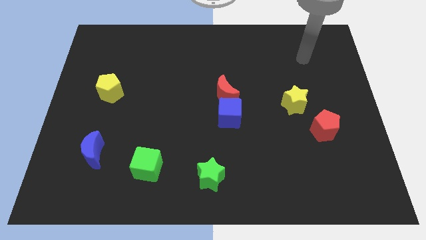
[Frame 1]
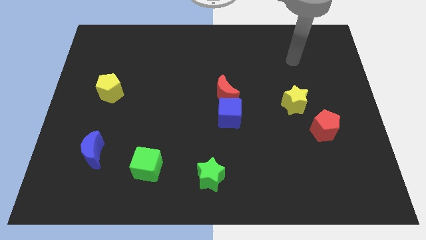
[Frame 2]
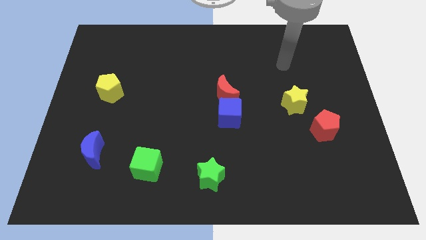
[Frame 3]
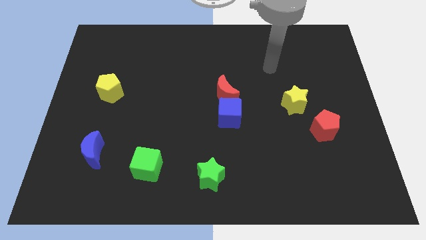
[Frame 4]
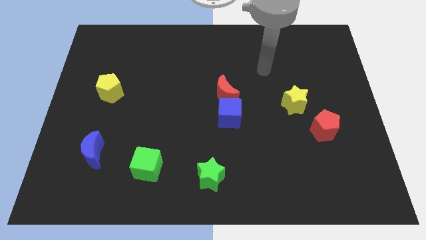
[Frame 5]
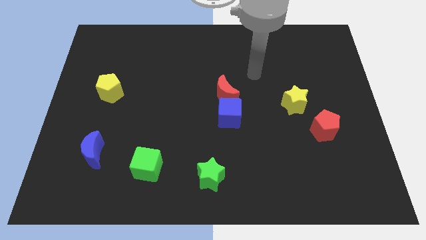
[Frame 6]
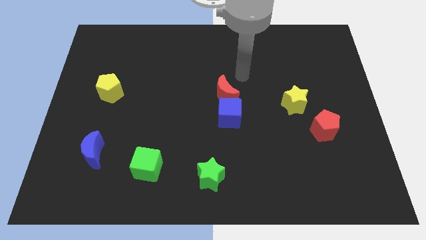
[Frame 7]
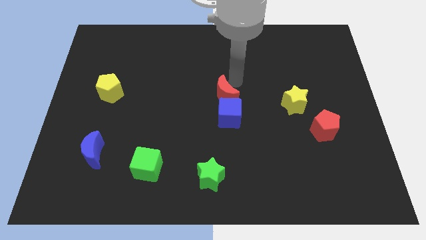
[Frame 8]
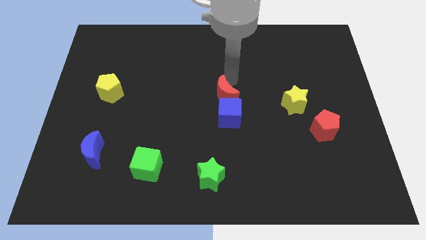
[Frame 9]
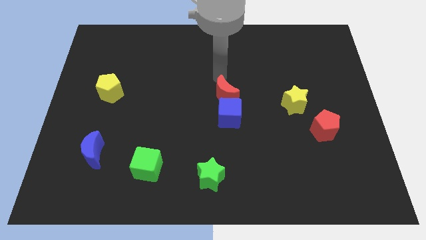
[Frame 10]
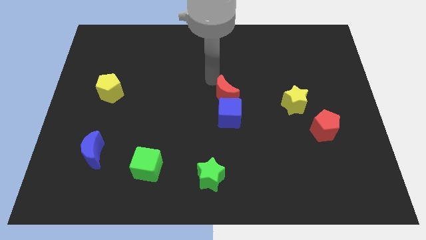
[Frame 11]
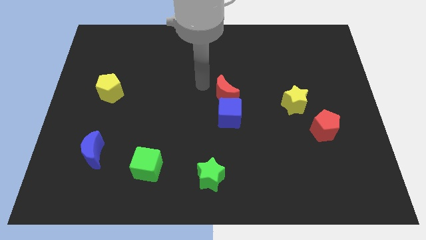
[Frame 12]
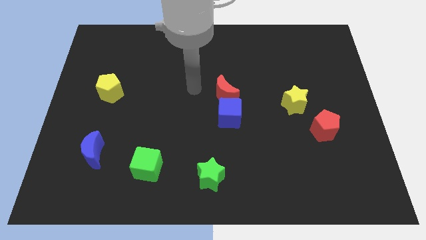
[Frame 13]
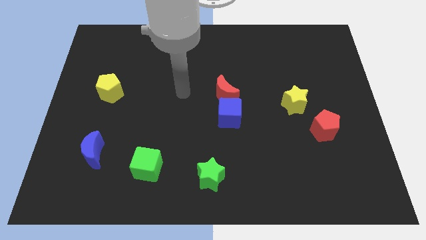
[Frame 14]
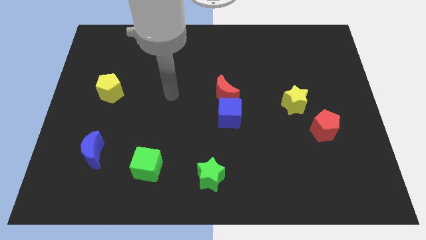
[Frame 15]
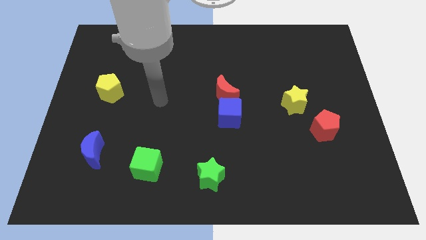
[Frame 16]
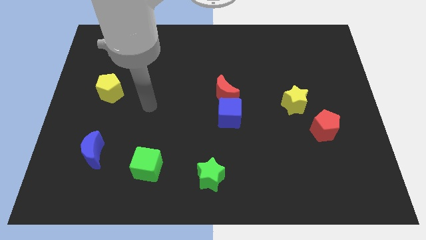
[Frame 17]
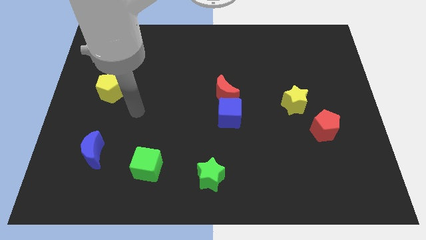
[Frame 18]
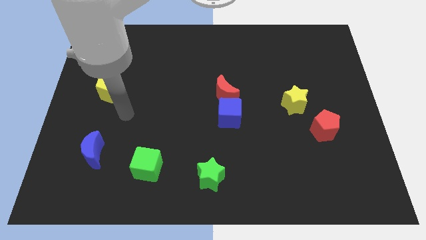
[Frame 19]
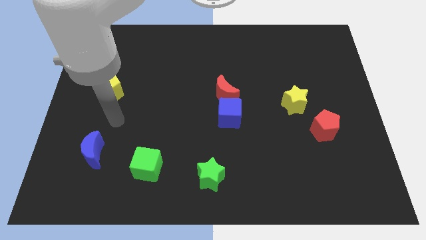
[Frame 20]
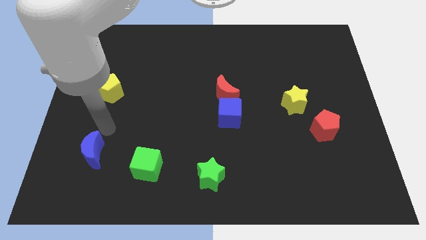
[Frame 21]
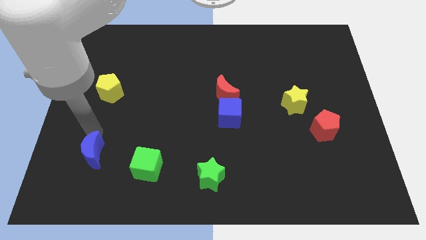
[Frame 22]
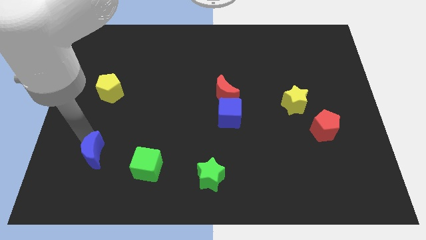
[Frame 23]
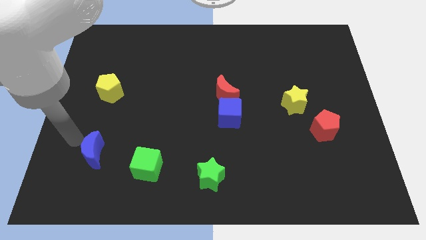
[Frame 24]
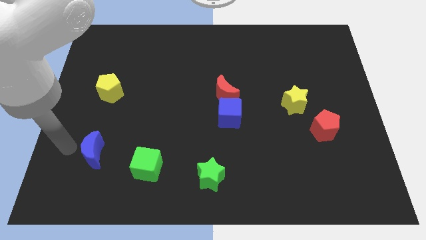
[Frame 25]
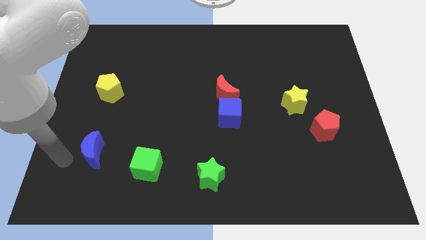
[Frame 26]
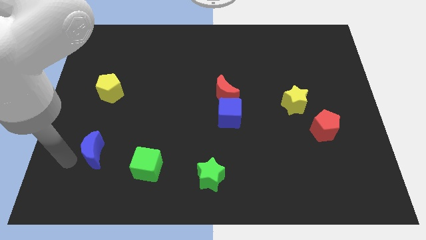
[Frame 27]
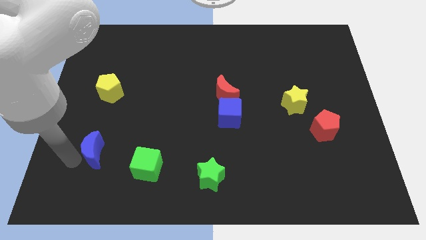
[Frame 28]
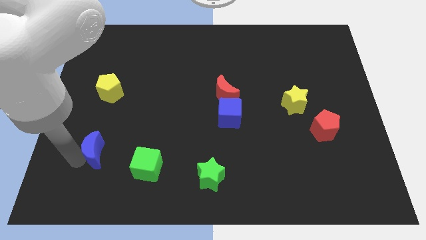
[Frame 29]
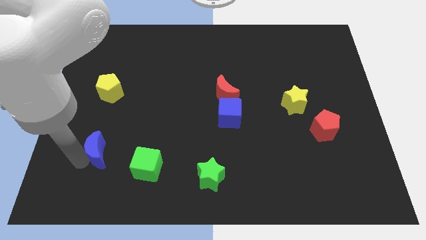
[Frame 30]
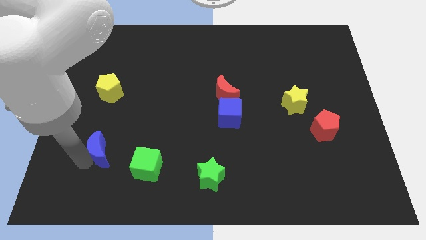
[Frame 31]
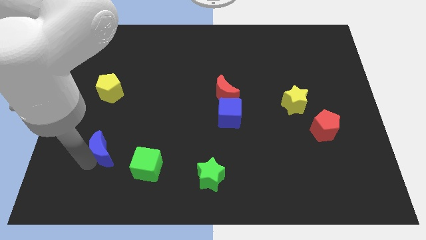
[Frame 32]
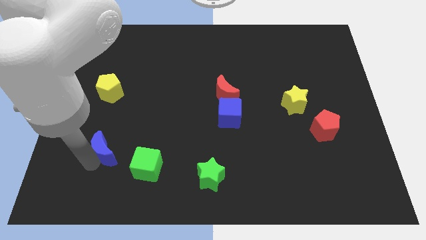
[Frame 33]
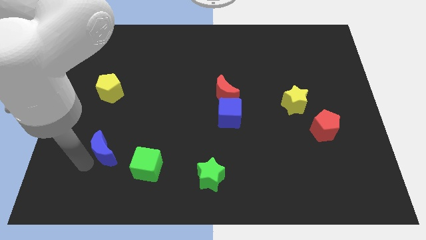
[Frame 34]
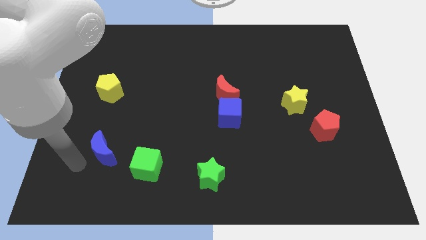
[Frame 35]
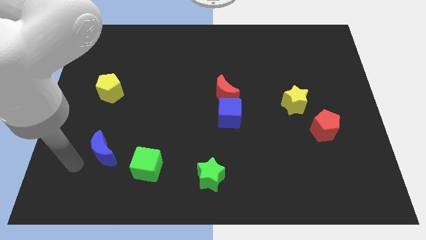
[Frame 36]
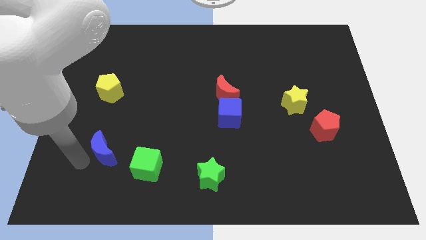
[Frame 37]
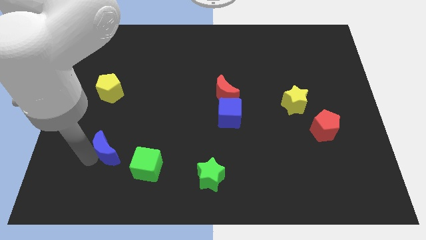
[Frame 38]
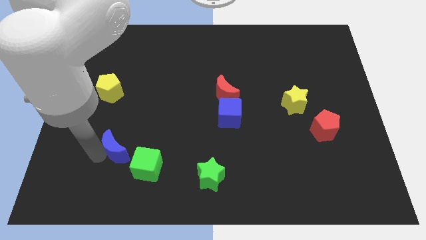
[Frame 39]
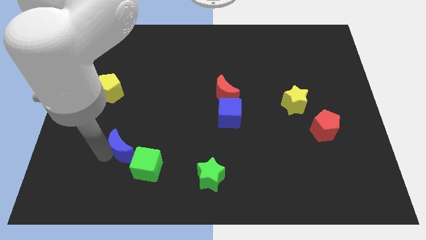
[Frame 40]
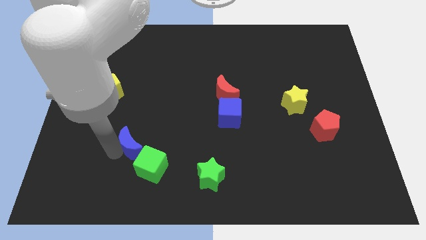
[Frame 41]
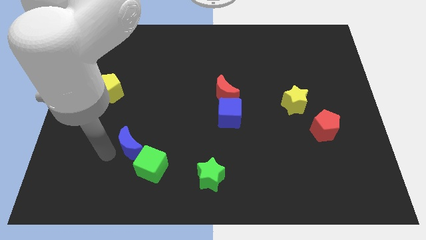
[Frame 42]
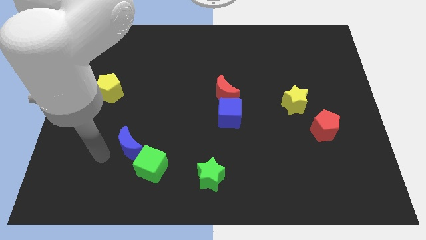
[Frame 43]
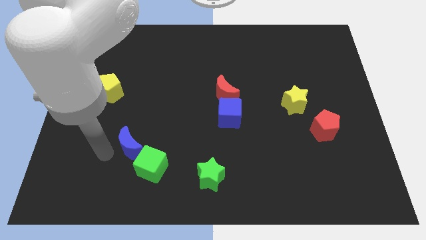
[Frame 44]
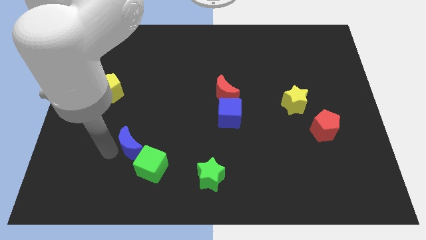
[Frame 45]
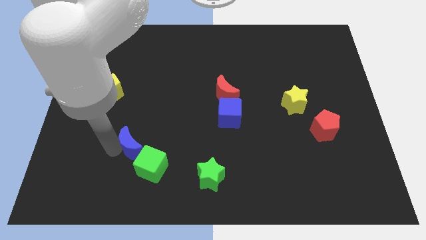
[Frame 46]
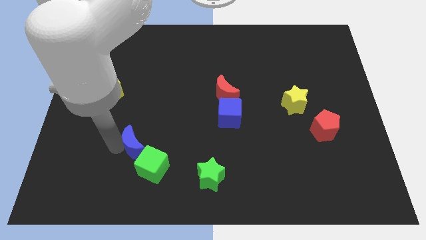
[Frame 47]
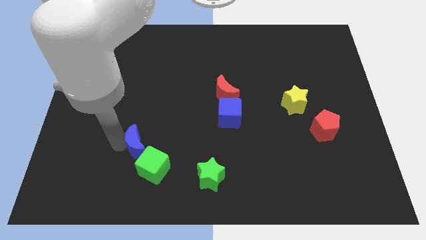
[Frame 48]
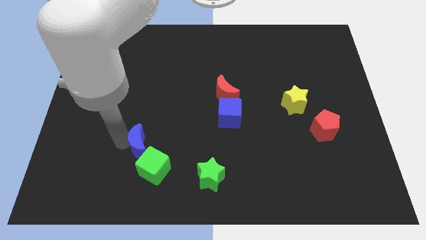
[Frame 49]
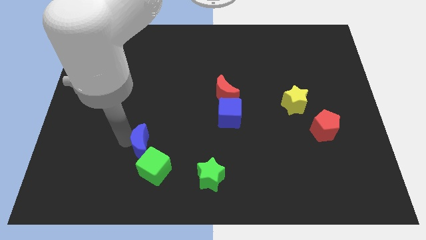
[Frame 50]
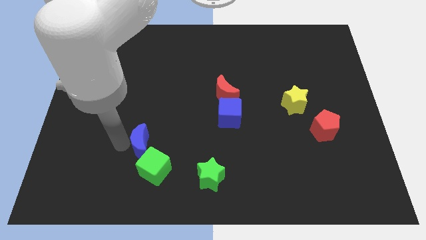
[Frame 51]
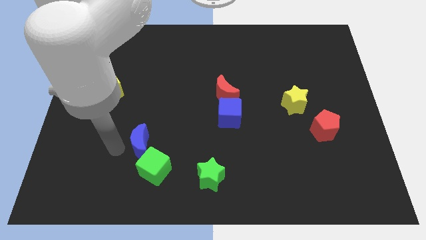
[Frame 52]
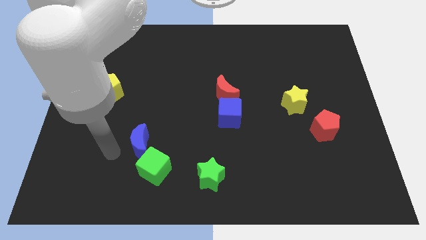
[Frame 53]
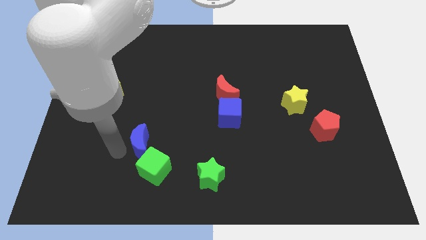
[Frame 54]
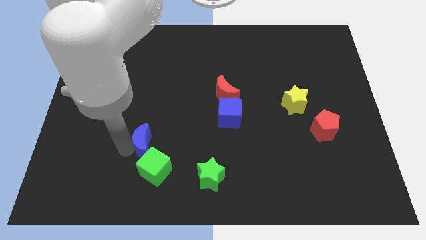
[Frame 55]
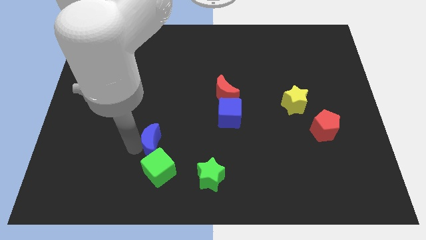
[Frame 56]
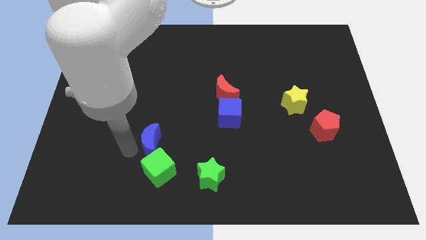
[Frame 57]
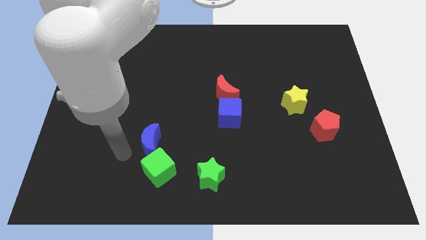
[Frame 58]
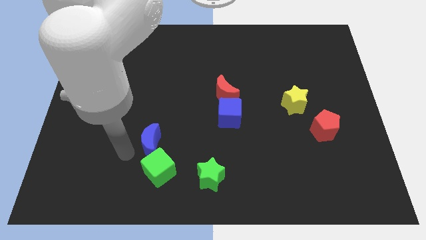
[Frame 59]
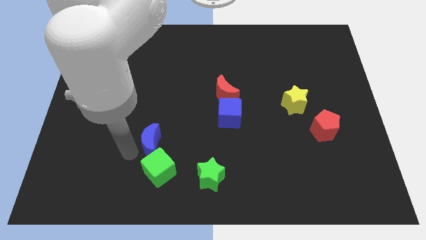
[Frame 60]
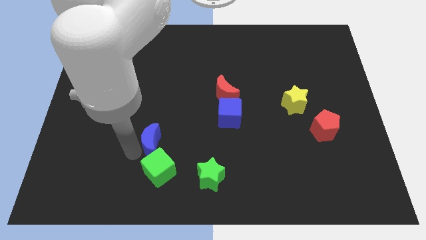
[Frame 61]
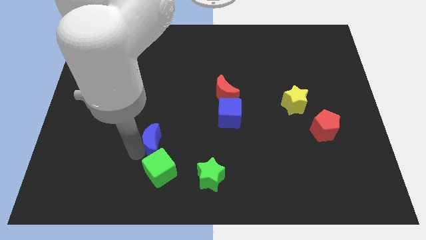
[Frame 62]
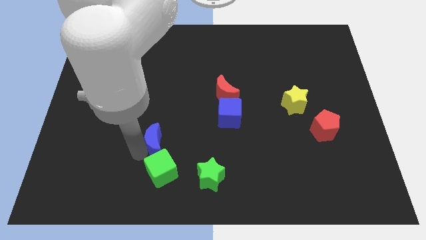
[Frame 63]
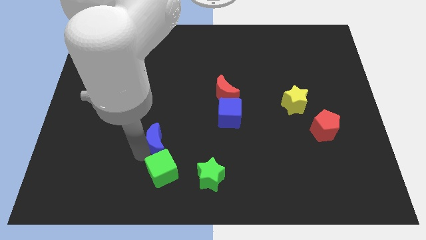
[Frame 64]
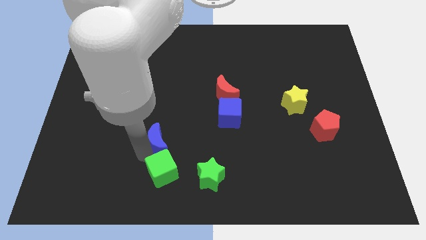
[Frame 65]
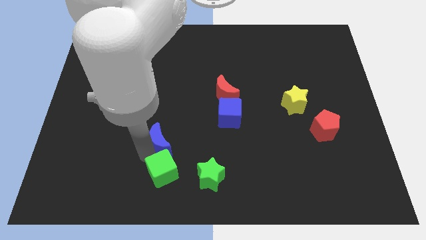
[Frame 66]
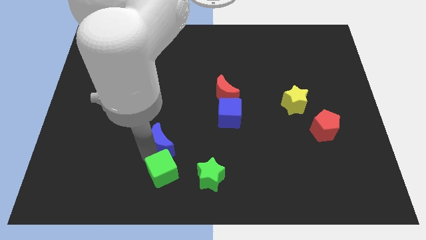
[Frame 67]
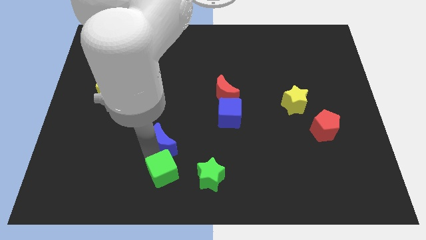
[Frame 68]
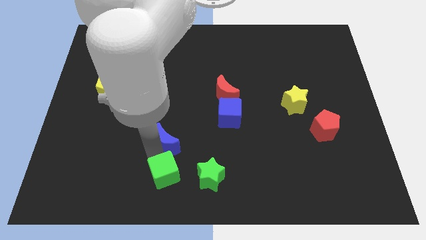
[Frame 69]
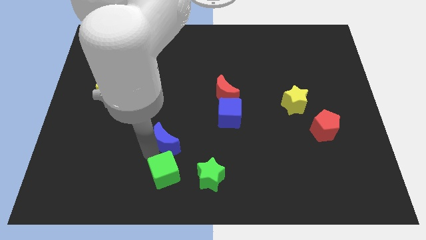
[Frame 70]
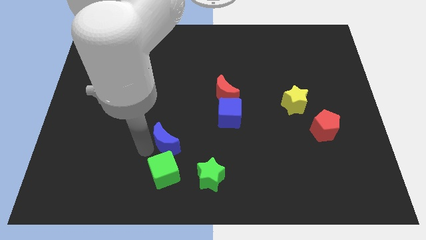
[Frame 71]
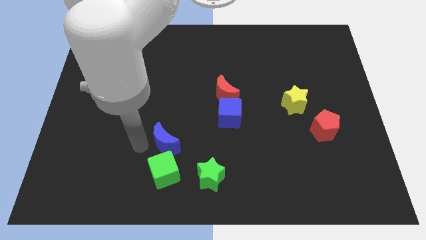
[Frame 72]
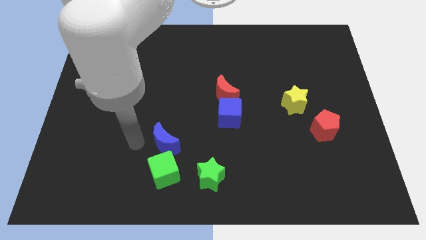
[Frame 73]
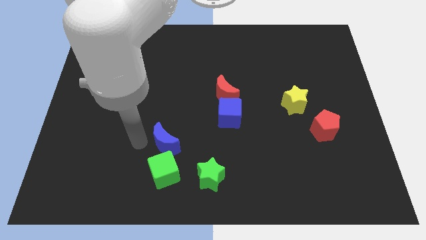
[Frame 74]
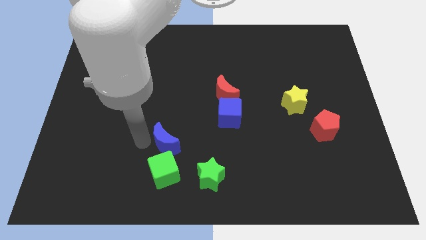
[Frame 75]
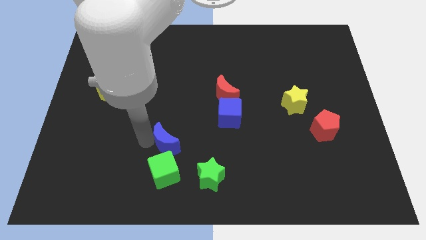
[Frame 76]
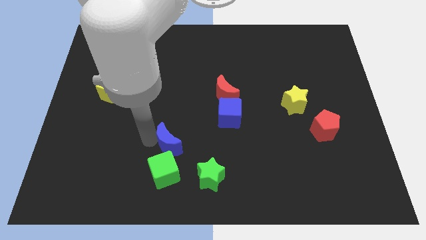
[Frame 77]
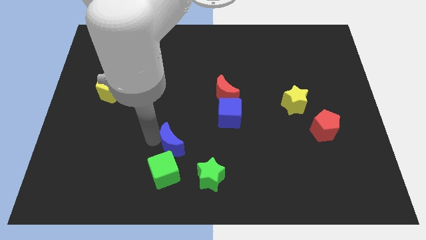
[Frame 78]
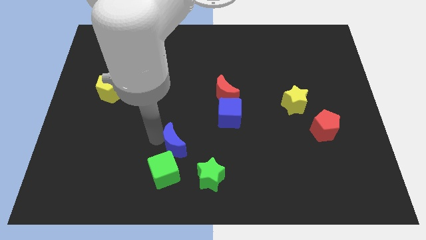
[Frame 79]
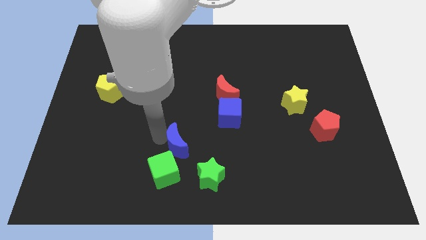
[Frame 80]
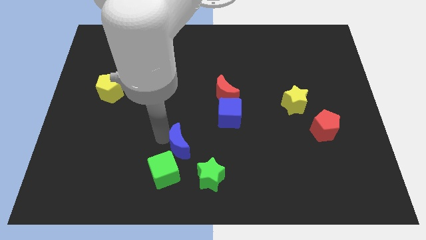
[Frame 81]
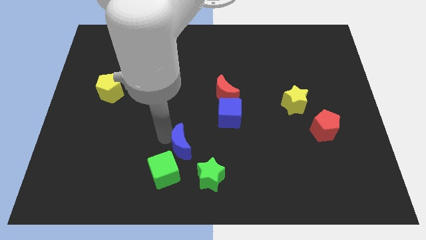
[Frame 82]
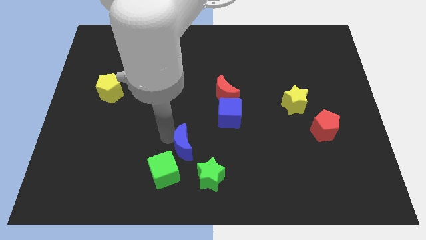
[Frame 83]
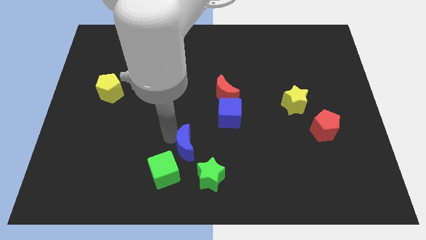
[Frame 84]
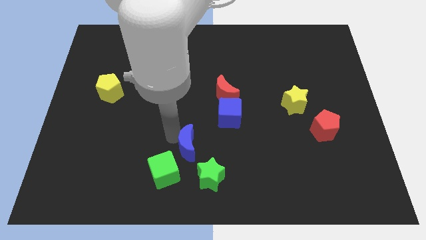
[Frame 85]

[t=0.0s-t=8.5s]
slide the blue moon right
